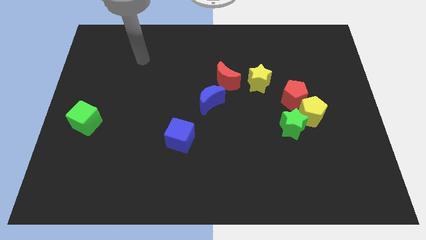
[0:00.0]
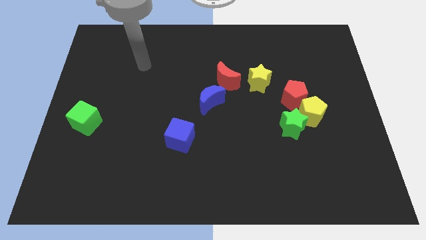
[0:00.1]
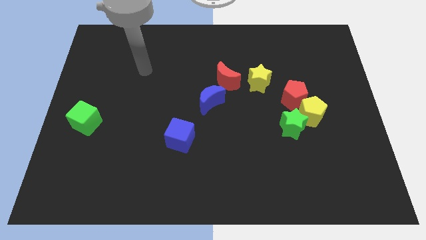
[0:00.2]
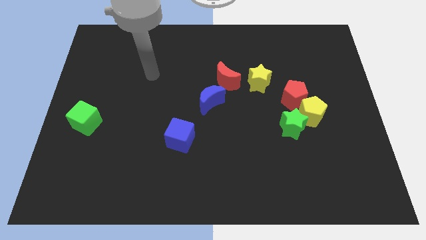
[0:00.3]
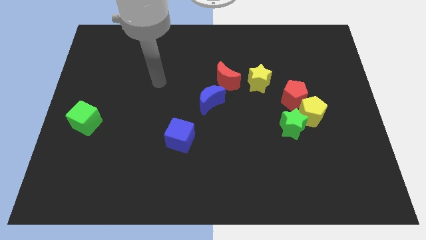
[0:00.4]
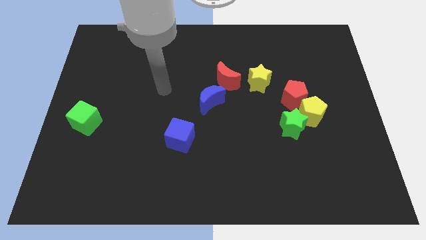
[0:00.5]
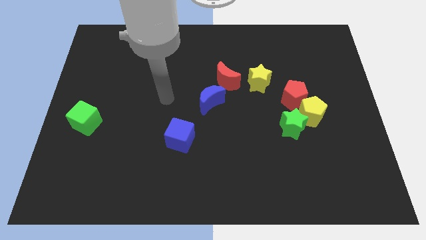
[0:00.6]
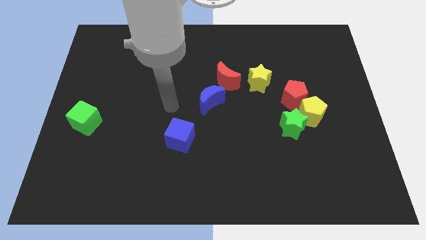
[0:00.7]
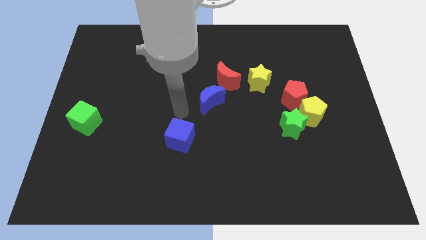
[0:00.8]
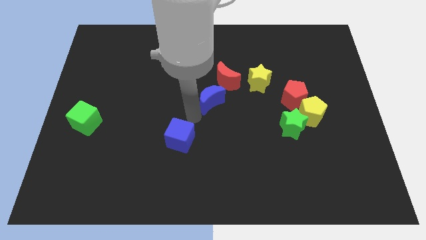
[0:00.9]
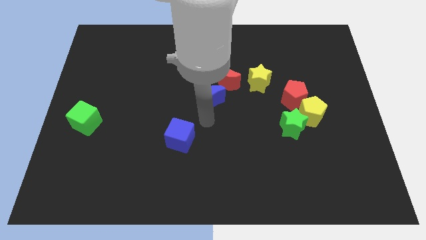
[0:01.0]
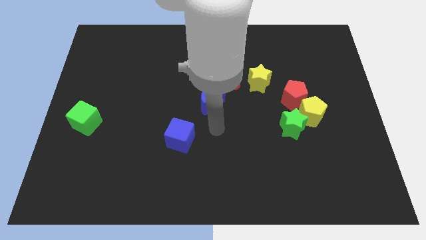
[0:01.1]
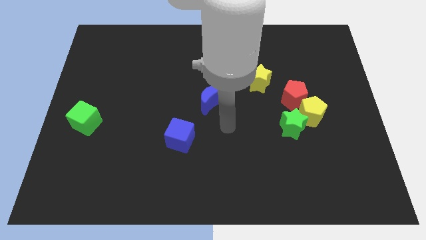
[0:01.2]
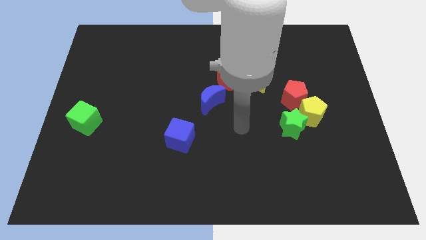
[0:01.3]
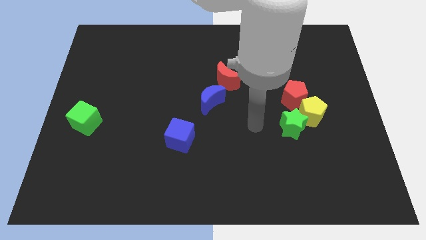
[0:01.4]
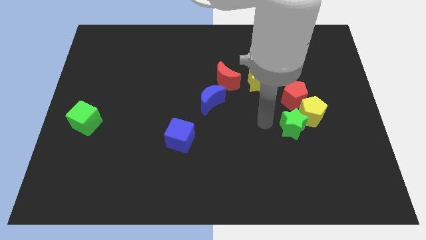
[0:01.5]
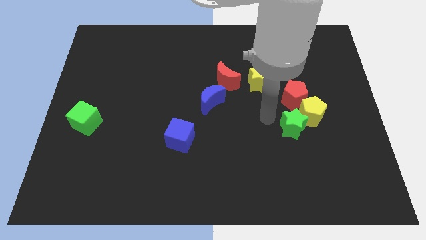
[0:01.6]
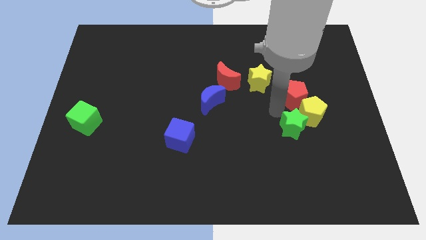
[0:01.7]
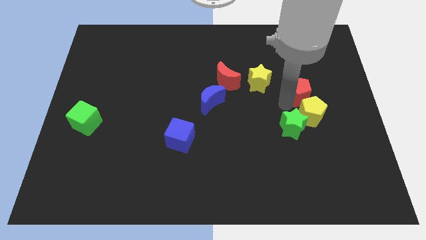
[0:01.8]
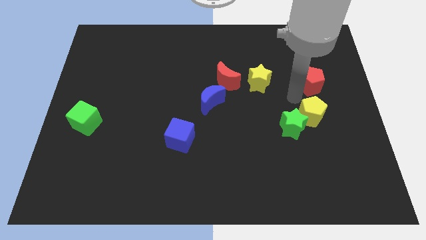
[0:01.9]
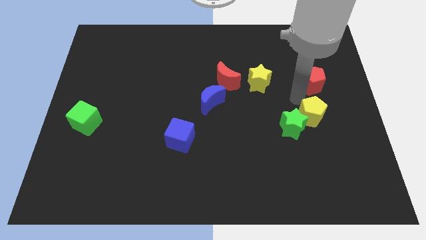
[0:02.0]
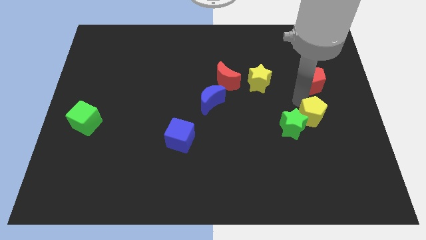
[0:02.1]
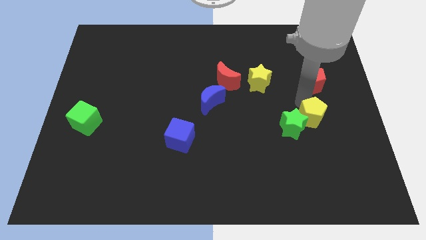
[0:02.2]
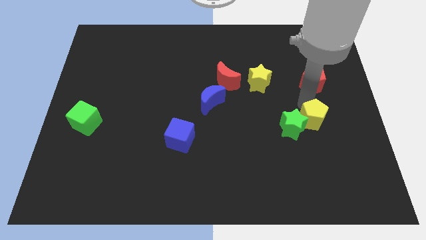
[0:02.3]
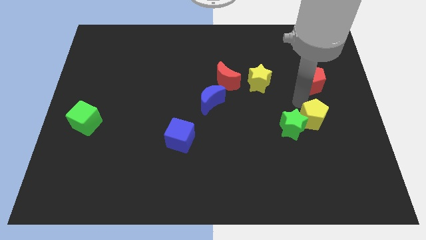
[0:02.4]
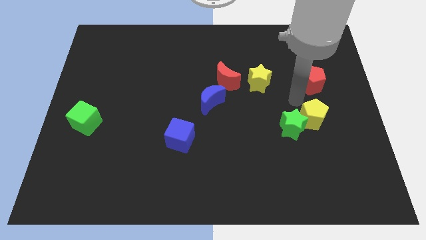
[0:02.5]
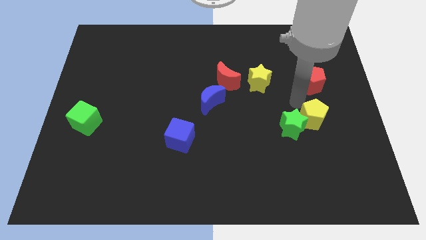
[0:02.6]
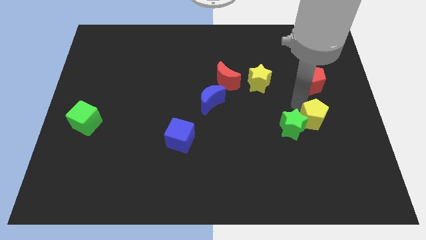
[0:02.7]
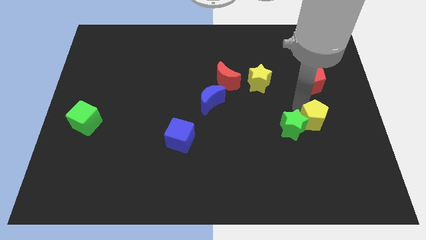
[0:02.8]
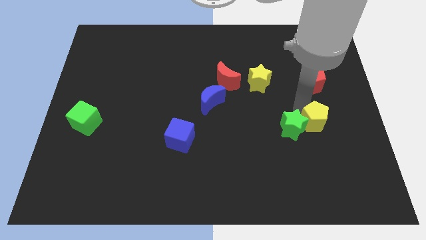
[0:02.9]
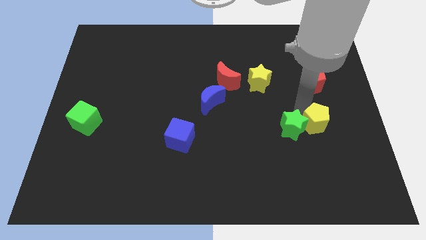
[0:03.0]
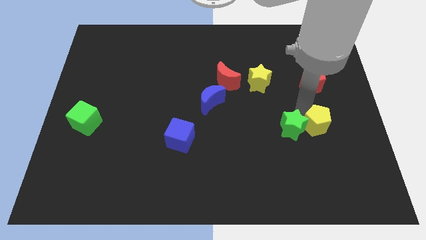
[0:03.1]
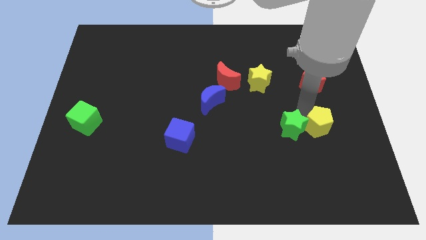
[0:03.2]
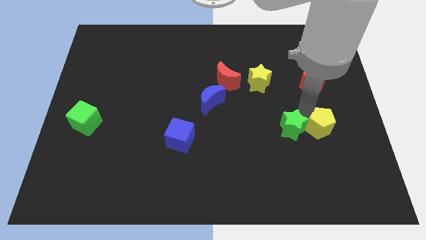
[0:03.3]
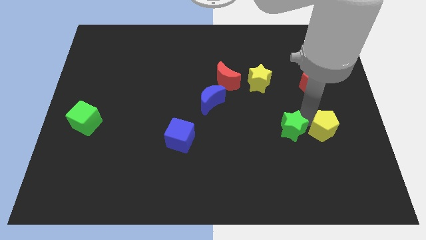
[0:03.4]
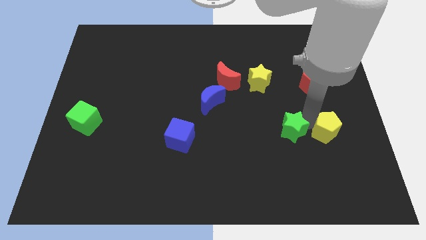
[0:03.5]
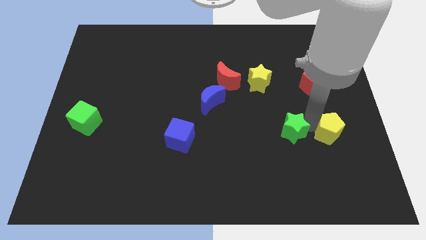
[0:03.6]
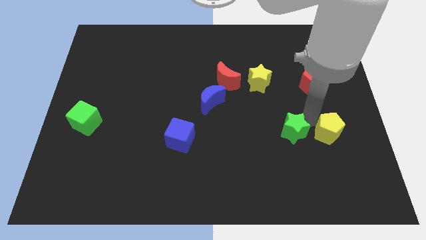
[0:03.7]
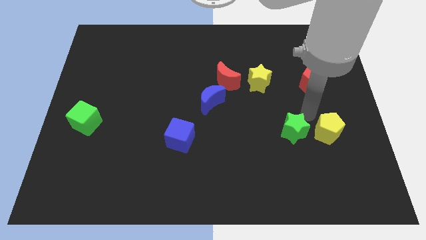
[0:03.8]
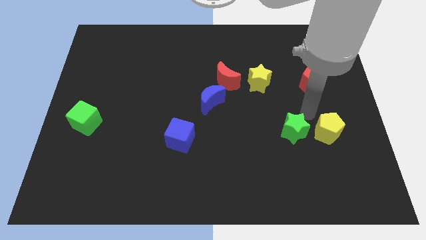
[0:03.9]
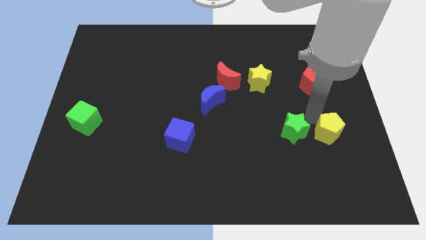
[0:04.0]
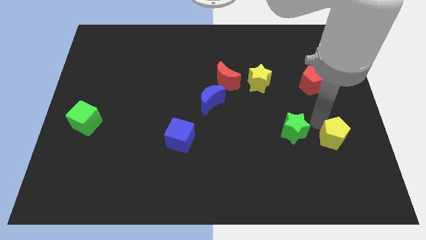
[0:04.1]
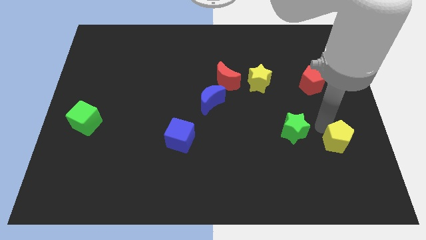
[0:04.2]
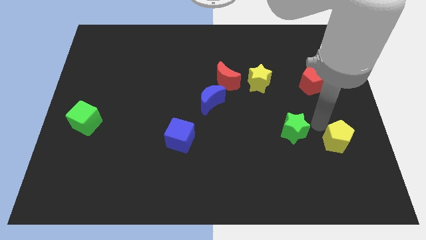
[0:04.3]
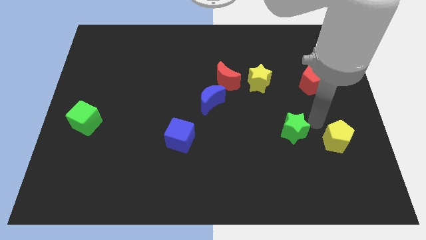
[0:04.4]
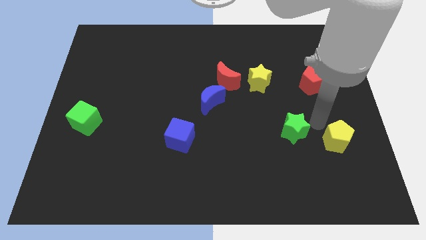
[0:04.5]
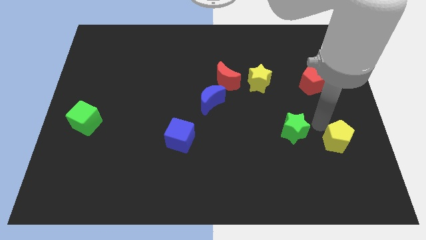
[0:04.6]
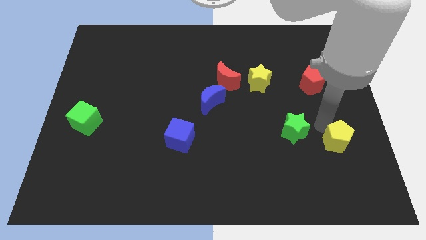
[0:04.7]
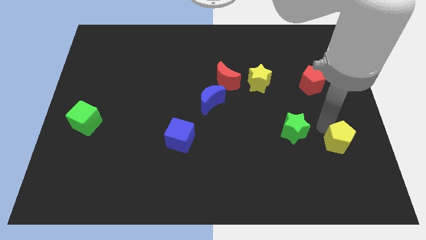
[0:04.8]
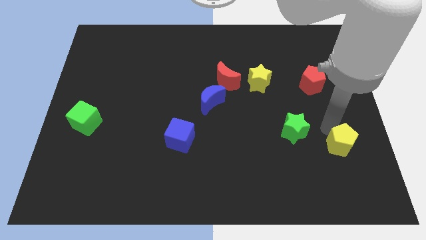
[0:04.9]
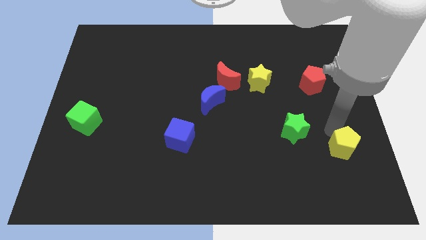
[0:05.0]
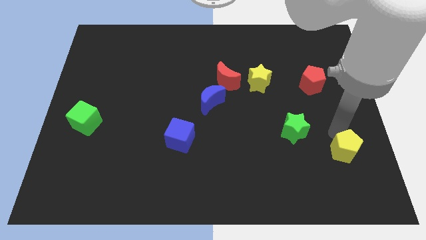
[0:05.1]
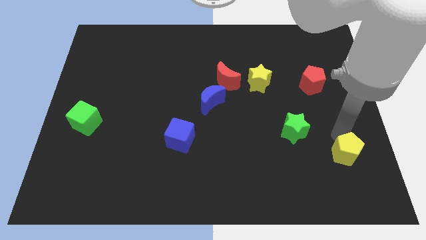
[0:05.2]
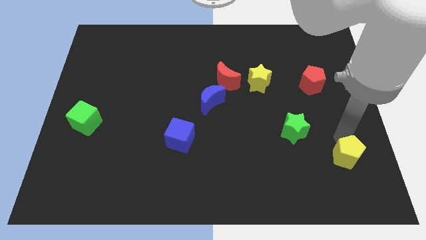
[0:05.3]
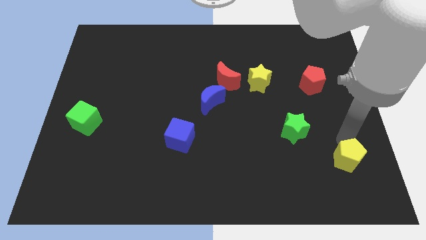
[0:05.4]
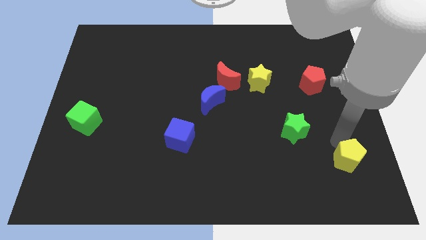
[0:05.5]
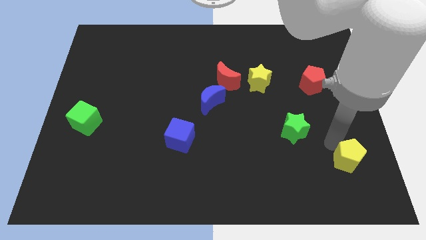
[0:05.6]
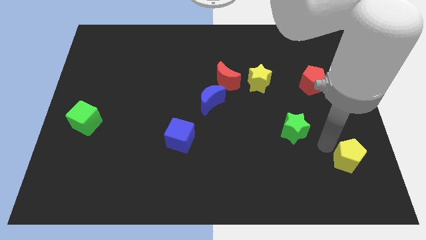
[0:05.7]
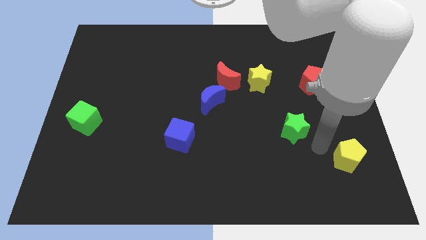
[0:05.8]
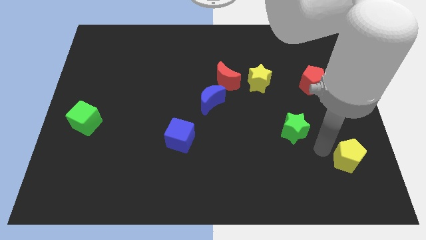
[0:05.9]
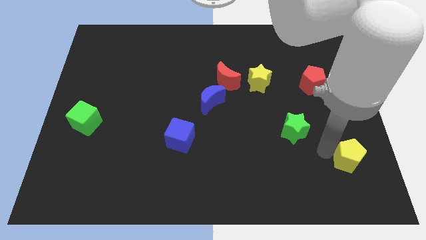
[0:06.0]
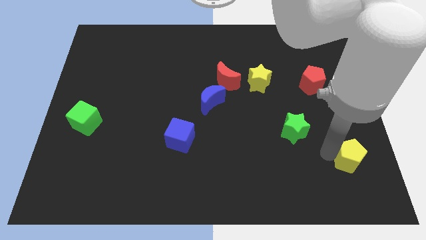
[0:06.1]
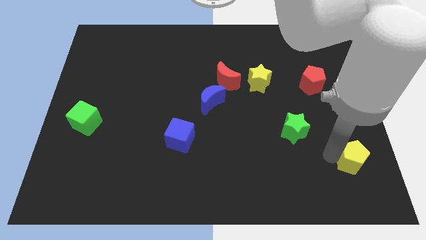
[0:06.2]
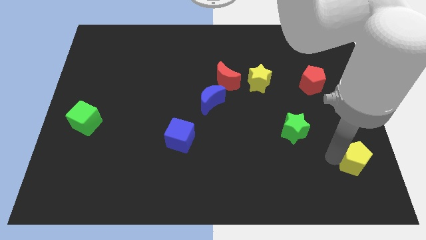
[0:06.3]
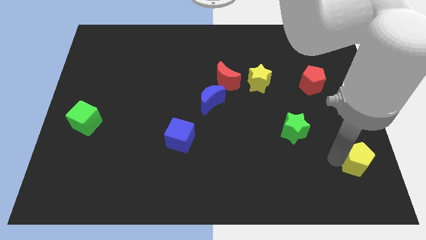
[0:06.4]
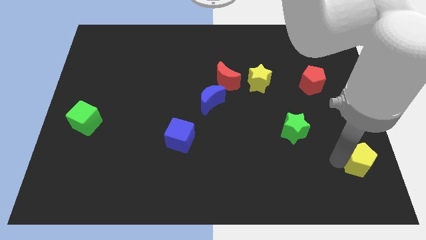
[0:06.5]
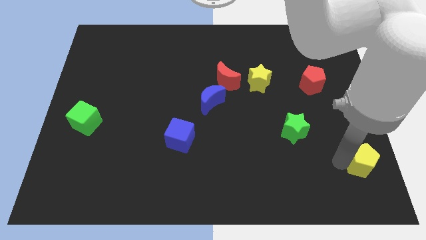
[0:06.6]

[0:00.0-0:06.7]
move the yellow pentagon to the bottom right corner
